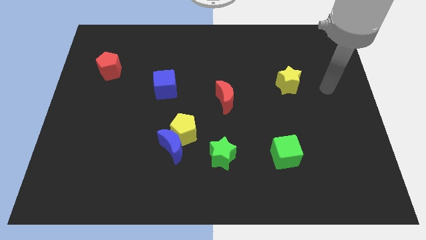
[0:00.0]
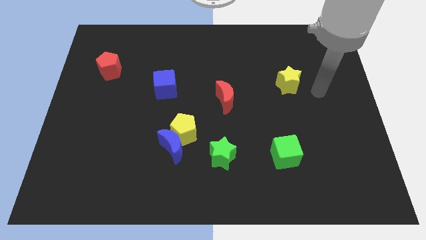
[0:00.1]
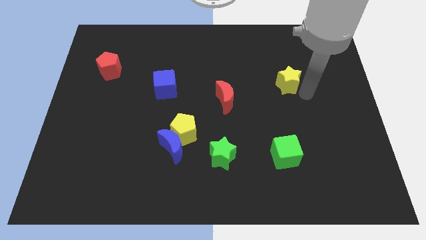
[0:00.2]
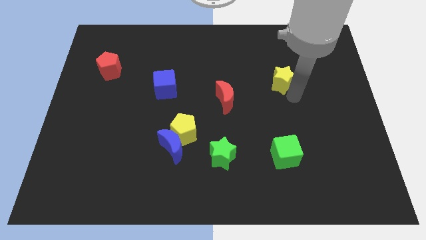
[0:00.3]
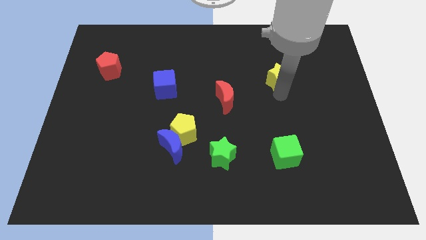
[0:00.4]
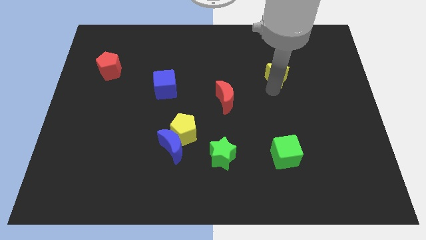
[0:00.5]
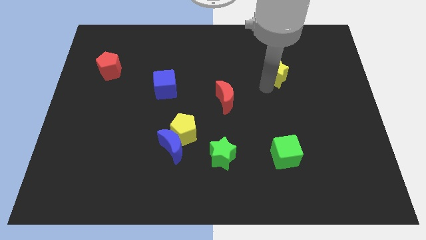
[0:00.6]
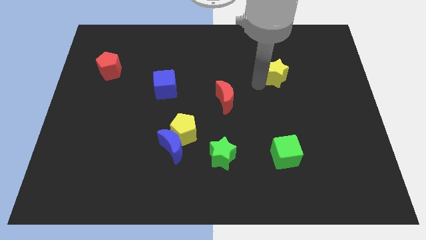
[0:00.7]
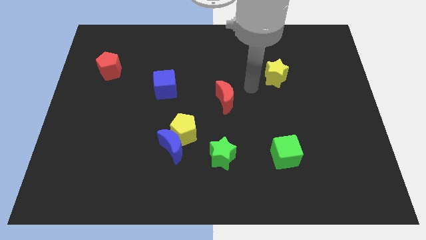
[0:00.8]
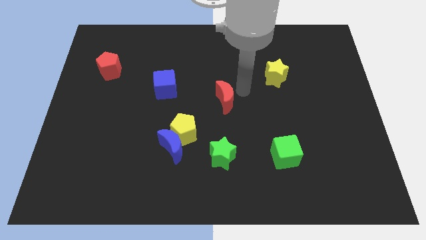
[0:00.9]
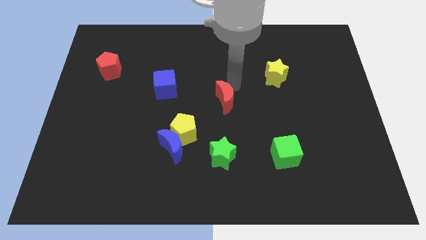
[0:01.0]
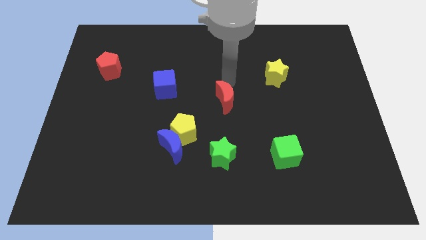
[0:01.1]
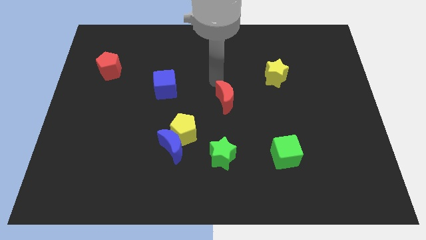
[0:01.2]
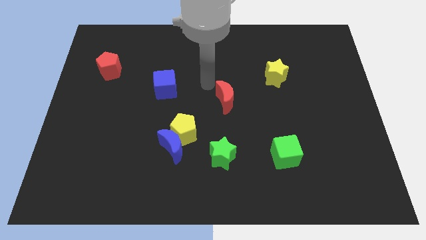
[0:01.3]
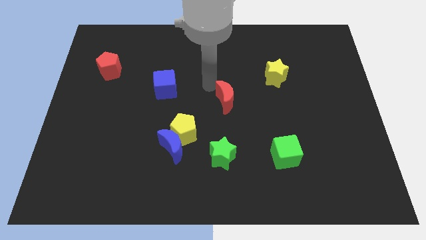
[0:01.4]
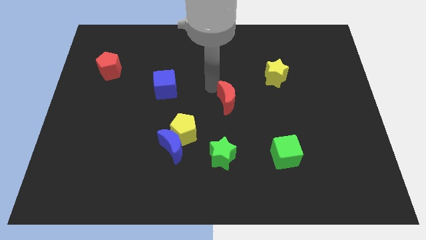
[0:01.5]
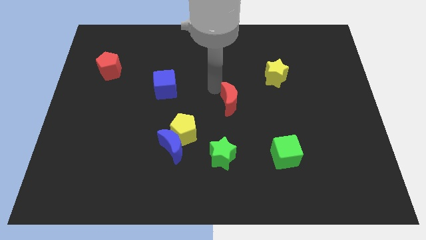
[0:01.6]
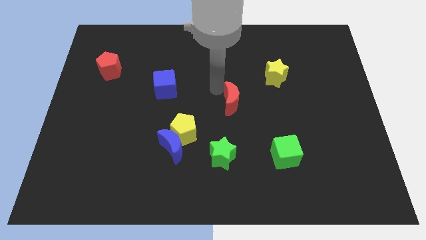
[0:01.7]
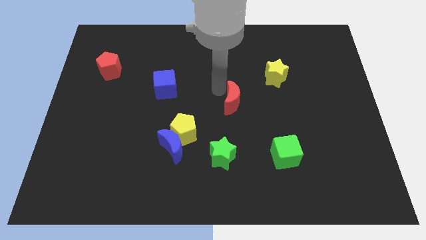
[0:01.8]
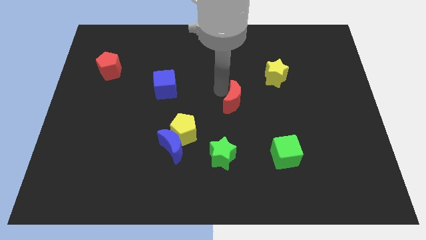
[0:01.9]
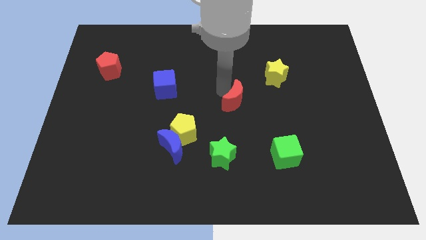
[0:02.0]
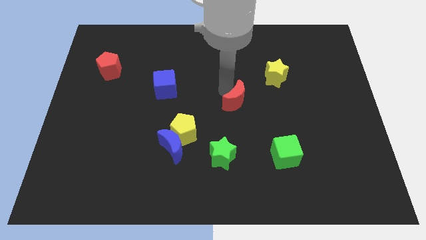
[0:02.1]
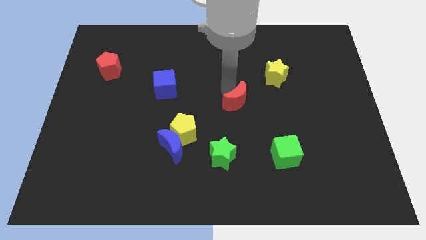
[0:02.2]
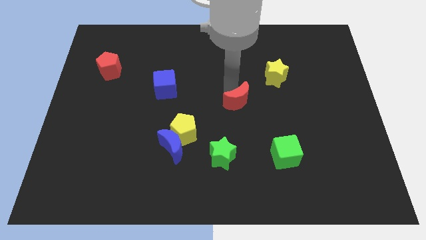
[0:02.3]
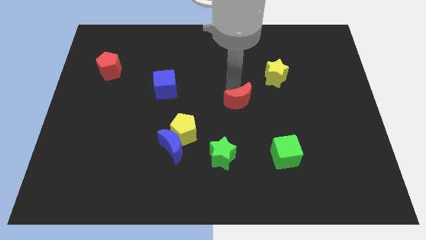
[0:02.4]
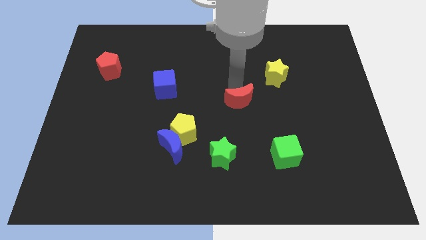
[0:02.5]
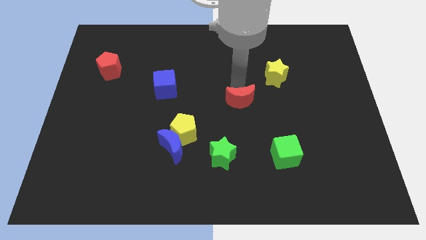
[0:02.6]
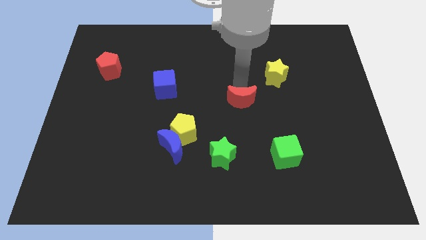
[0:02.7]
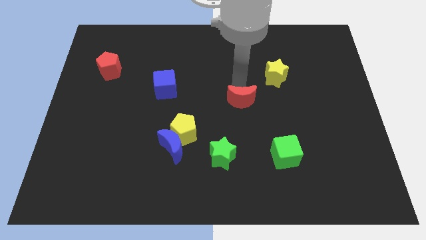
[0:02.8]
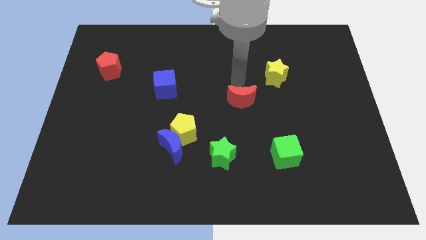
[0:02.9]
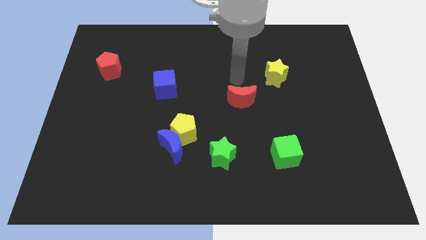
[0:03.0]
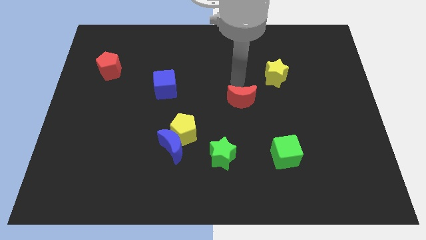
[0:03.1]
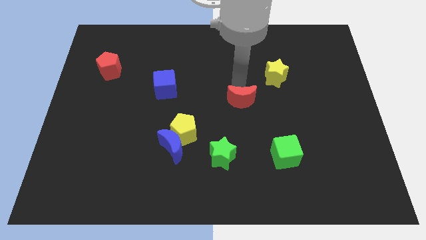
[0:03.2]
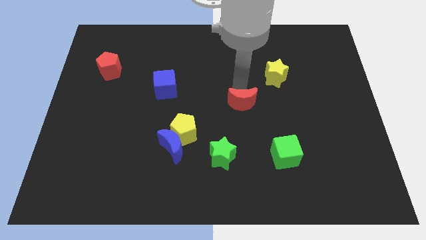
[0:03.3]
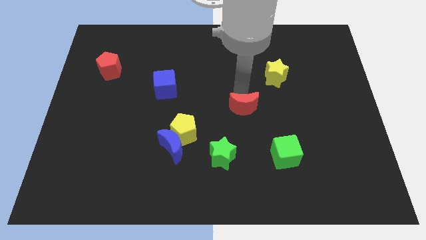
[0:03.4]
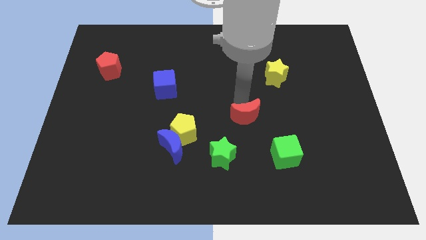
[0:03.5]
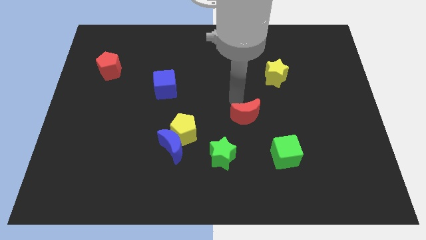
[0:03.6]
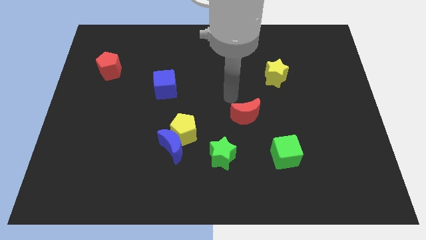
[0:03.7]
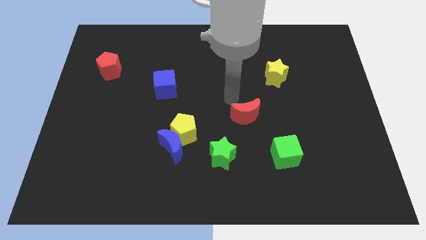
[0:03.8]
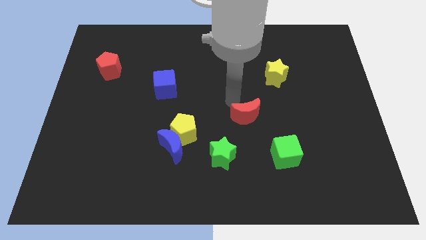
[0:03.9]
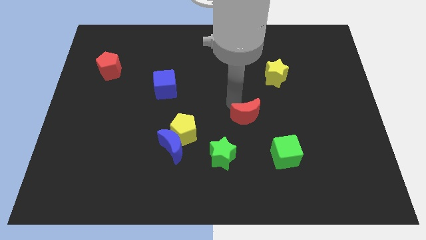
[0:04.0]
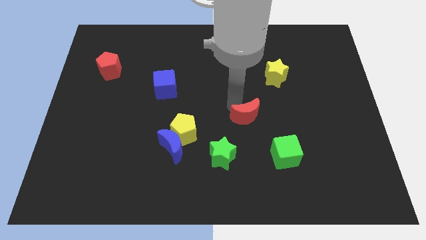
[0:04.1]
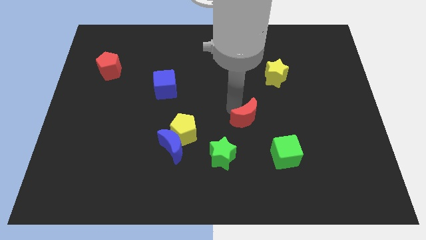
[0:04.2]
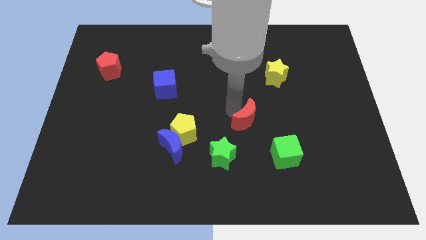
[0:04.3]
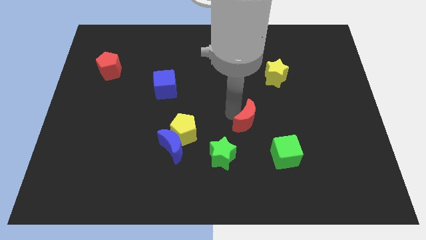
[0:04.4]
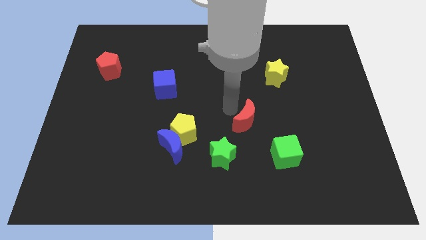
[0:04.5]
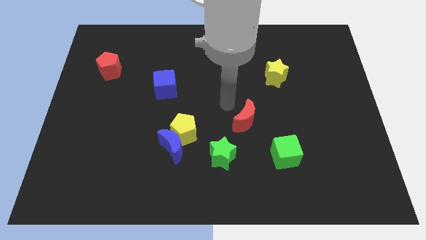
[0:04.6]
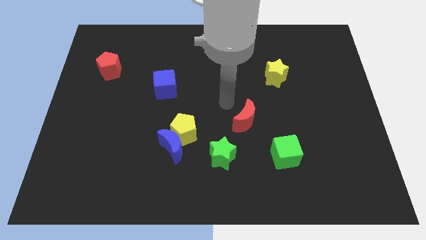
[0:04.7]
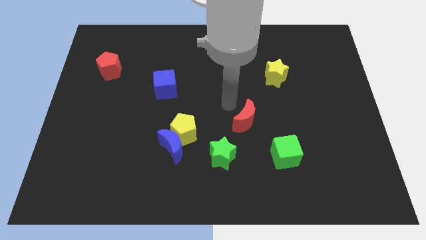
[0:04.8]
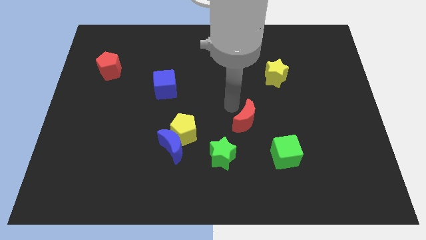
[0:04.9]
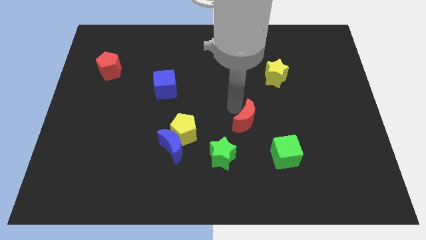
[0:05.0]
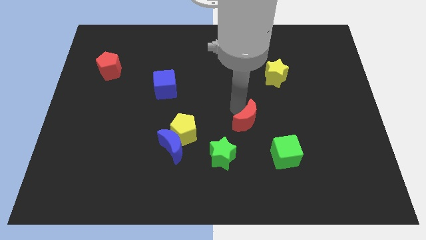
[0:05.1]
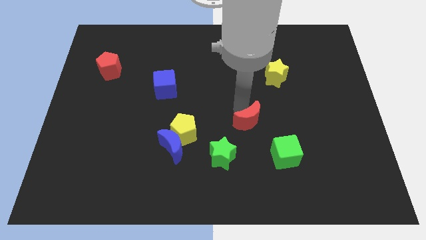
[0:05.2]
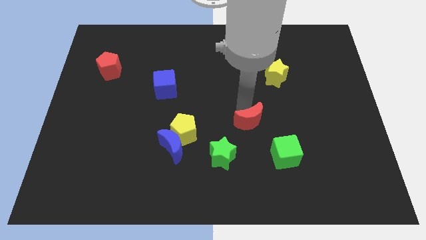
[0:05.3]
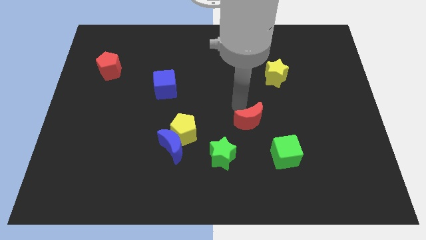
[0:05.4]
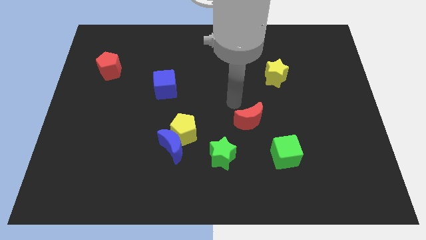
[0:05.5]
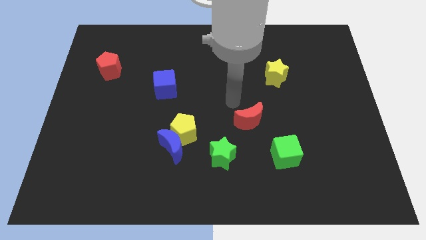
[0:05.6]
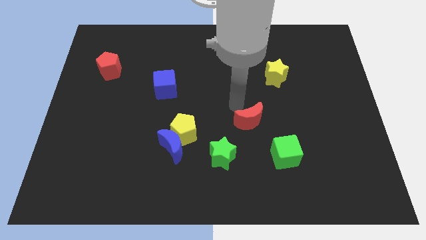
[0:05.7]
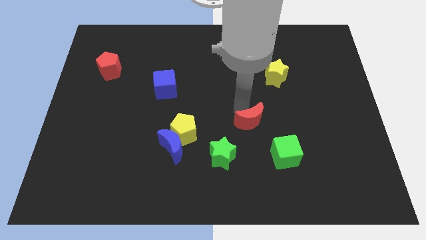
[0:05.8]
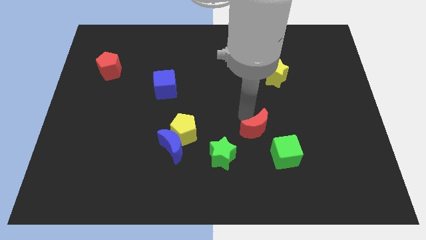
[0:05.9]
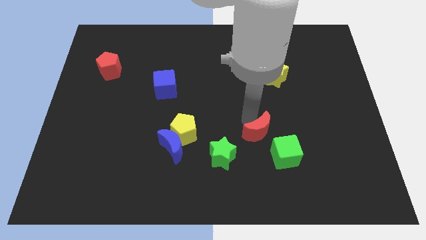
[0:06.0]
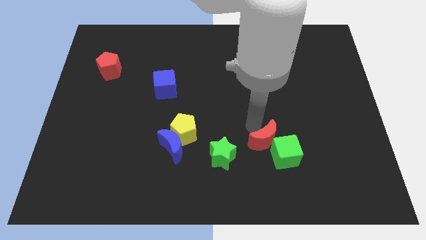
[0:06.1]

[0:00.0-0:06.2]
slide the red moon next to the green cube

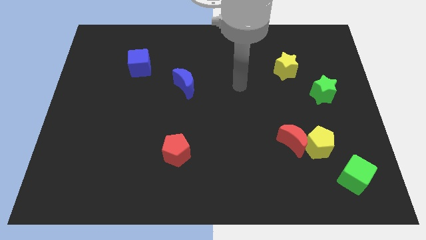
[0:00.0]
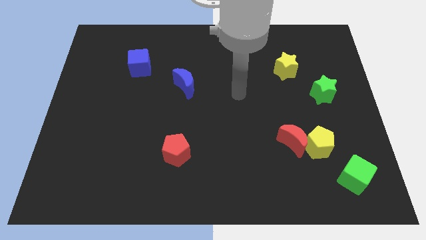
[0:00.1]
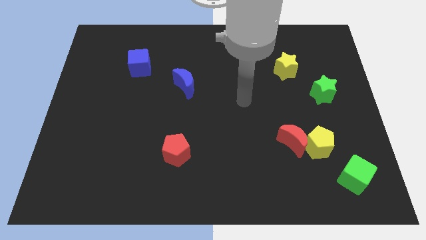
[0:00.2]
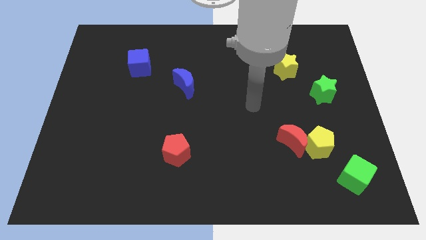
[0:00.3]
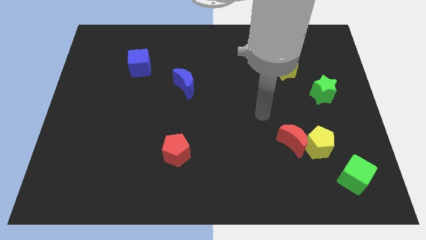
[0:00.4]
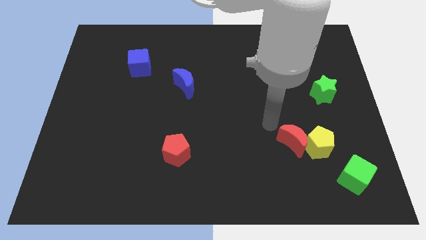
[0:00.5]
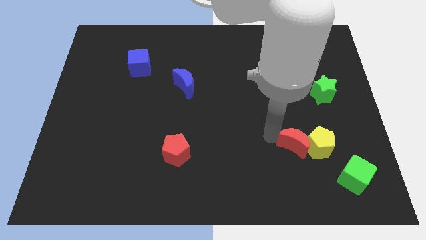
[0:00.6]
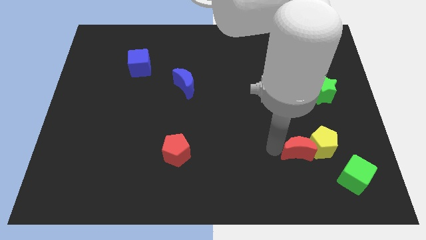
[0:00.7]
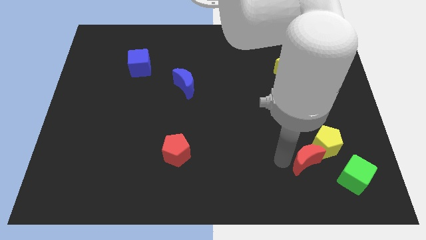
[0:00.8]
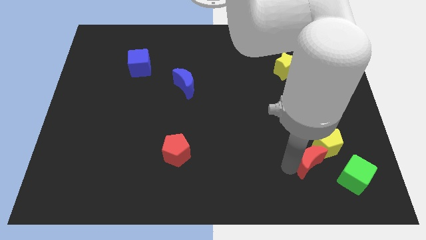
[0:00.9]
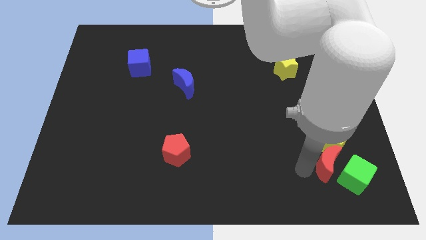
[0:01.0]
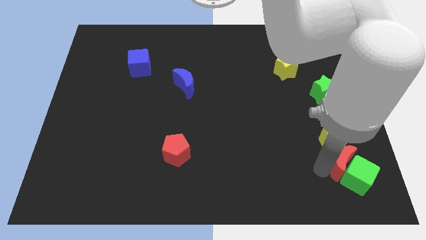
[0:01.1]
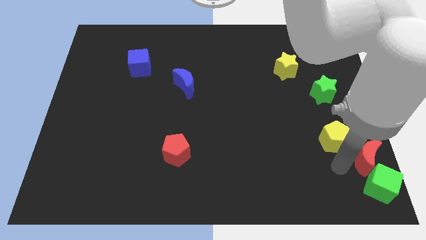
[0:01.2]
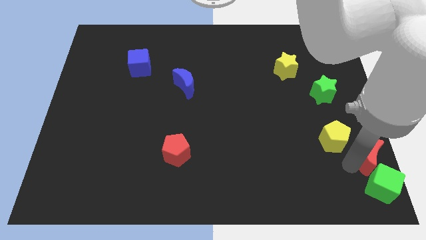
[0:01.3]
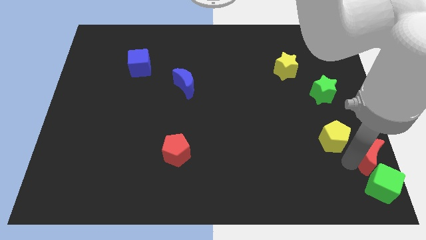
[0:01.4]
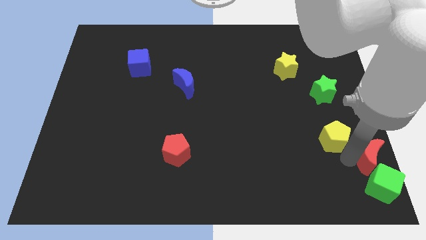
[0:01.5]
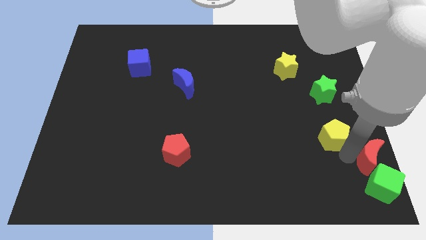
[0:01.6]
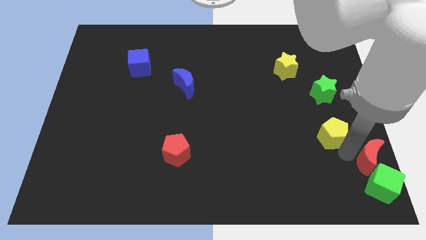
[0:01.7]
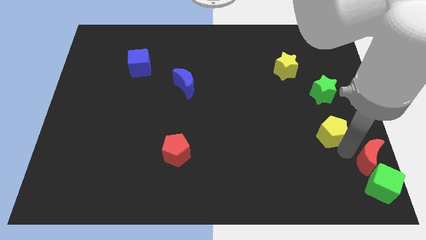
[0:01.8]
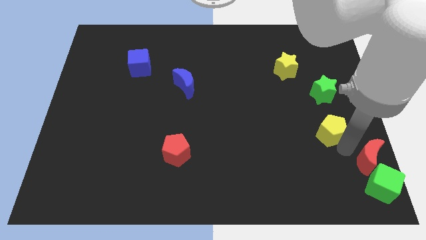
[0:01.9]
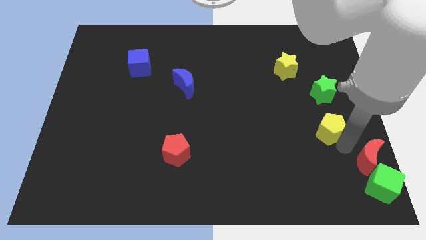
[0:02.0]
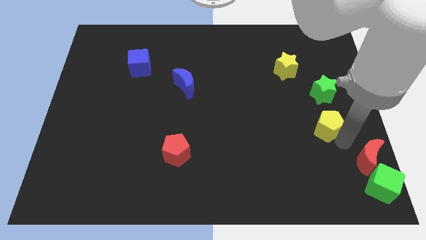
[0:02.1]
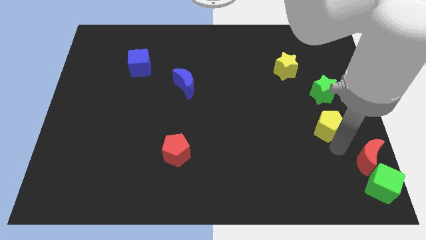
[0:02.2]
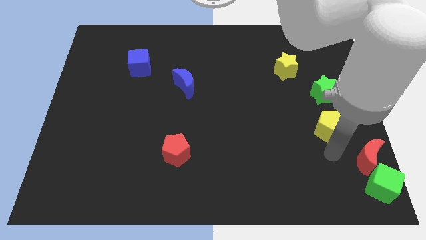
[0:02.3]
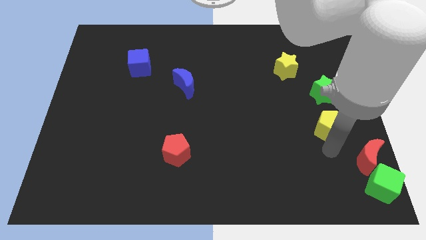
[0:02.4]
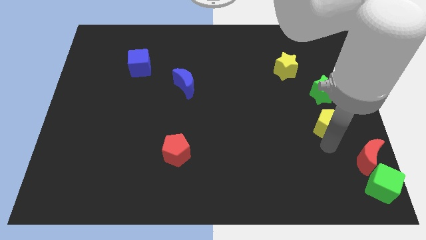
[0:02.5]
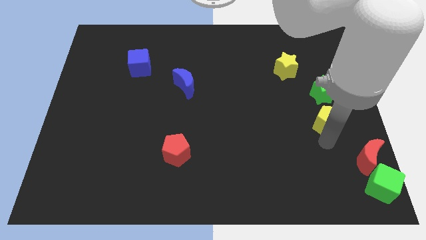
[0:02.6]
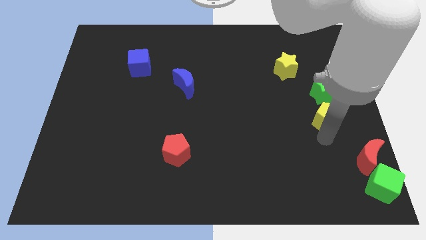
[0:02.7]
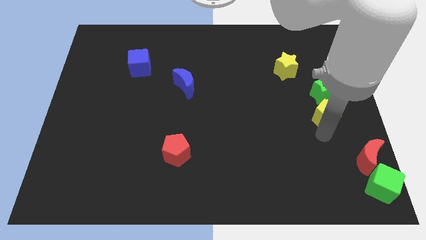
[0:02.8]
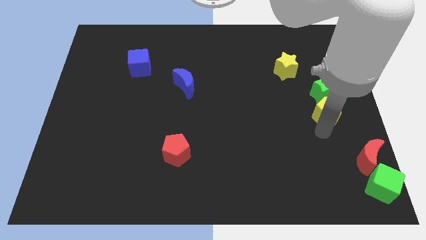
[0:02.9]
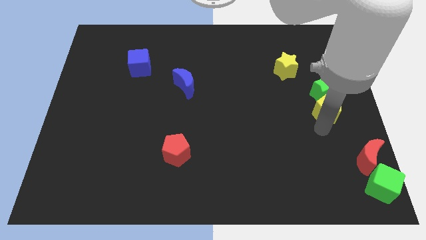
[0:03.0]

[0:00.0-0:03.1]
push the yellow pentagon next to the green star
